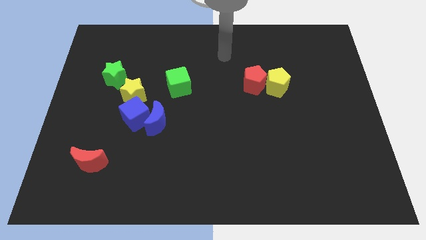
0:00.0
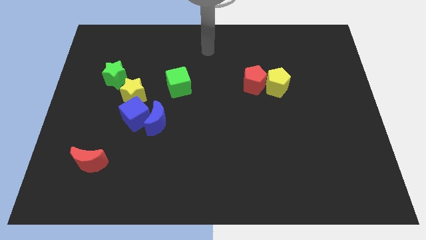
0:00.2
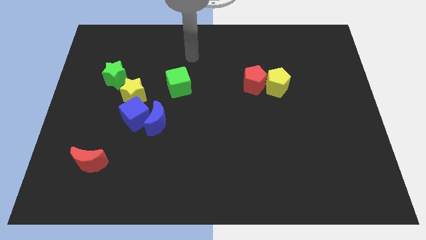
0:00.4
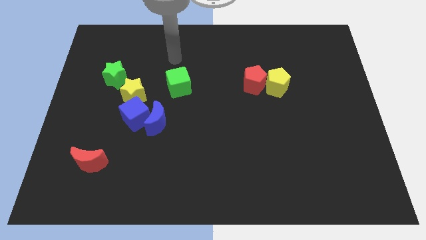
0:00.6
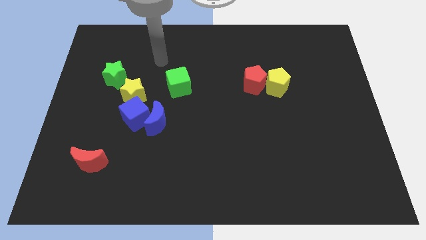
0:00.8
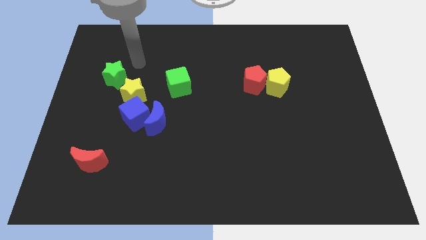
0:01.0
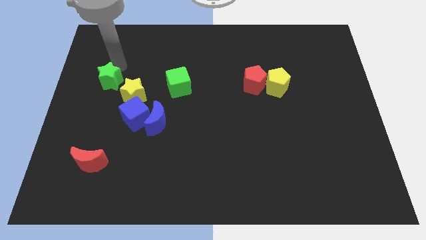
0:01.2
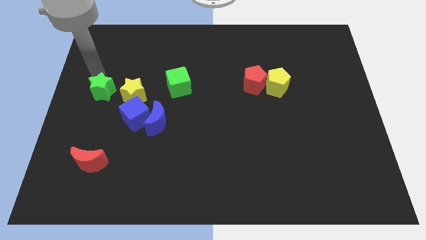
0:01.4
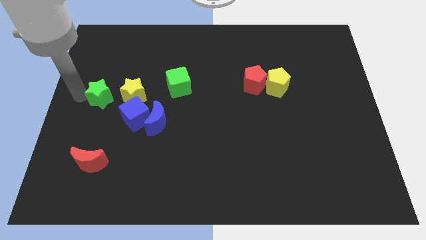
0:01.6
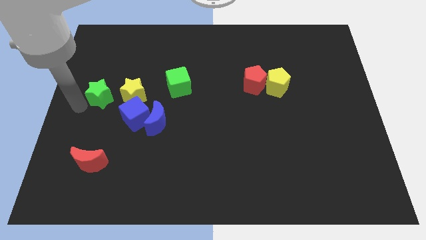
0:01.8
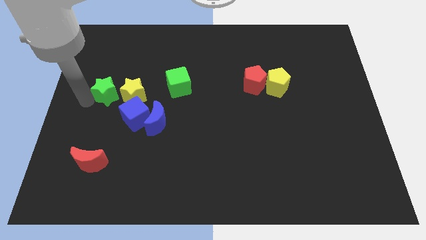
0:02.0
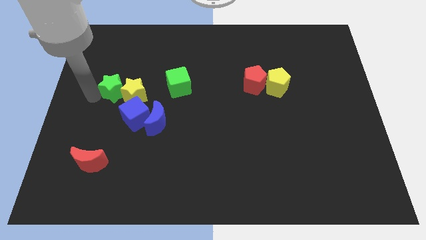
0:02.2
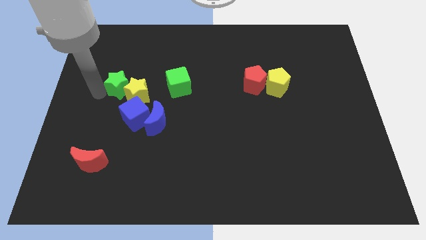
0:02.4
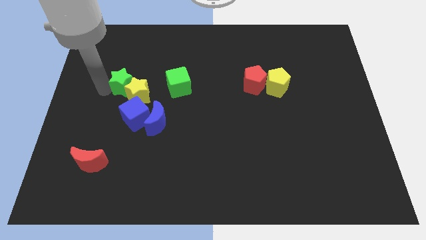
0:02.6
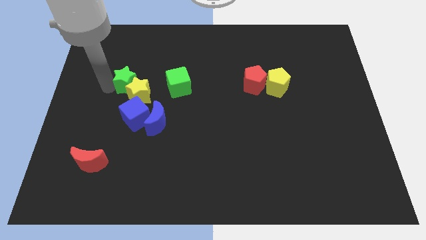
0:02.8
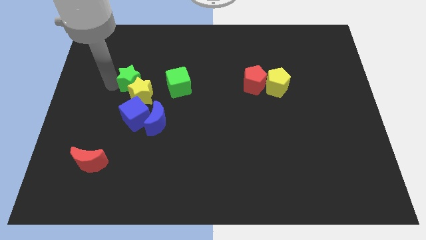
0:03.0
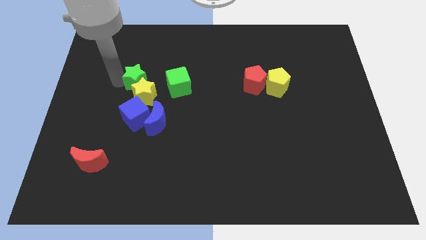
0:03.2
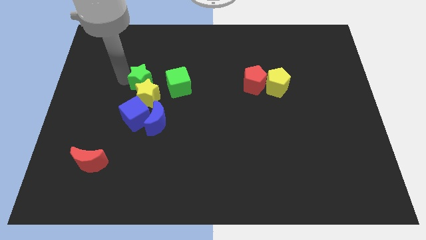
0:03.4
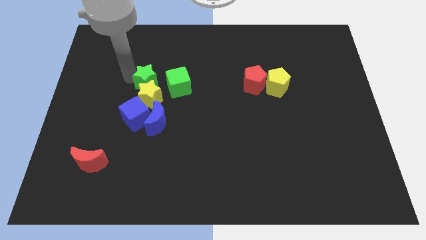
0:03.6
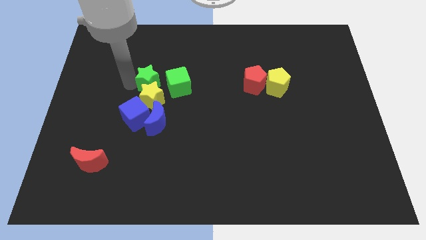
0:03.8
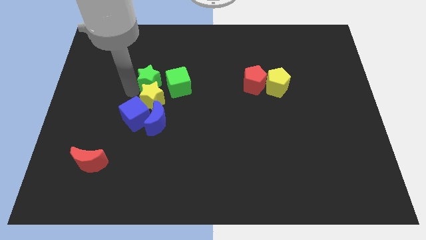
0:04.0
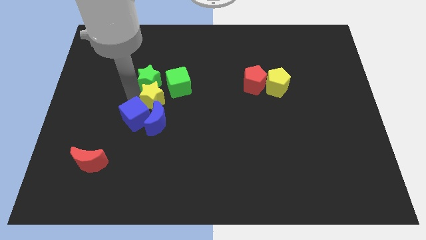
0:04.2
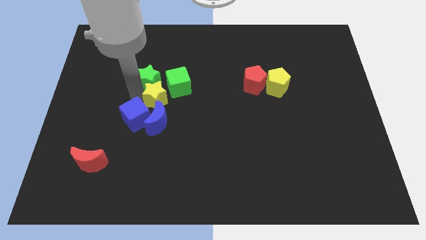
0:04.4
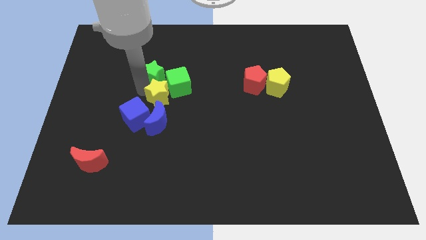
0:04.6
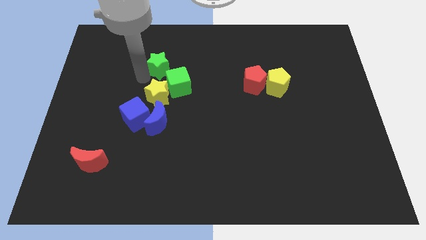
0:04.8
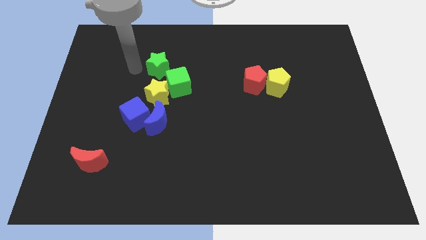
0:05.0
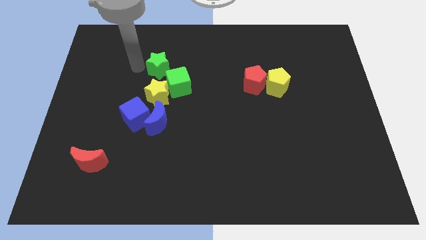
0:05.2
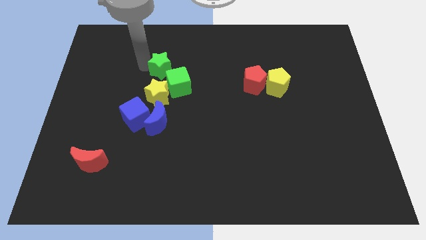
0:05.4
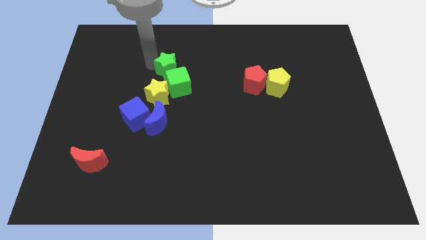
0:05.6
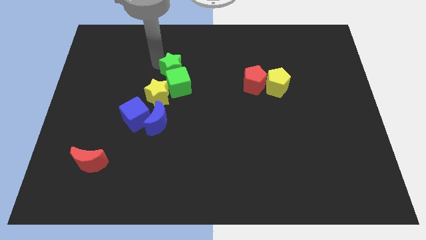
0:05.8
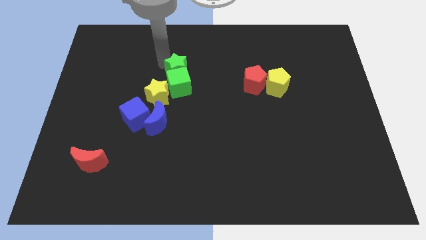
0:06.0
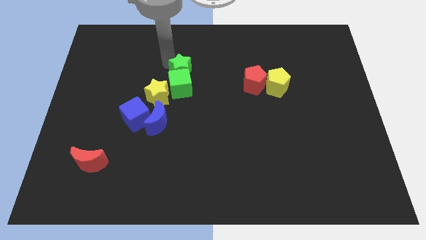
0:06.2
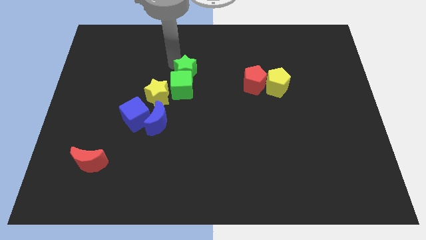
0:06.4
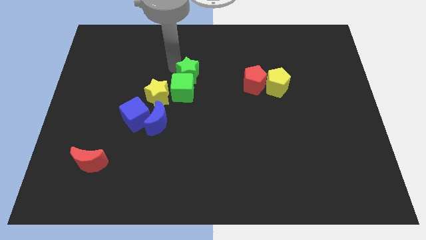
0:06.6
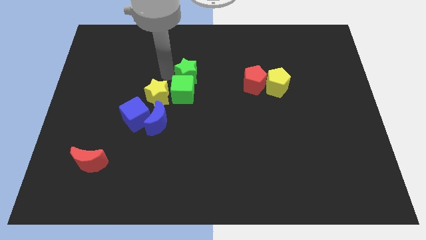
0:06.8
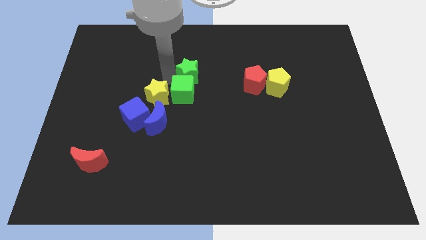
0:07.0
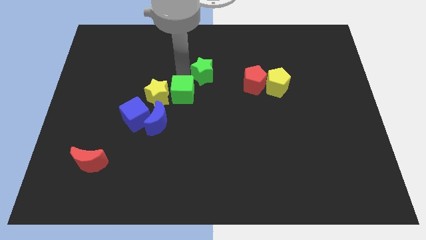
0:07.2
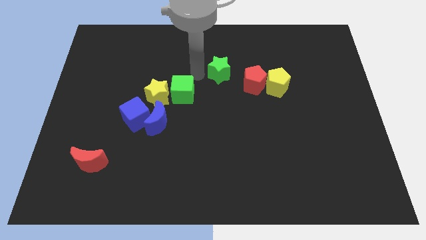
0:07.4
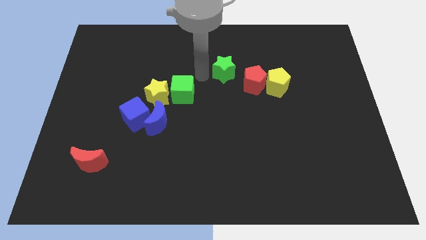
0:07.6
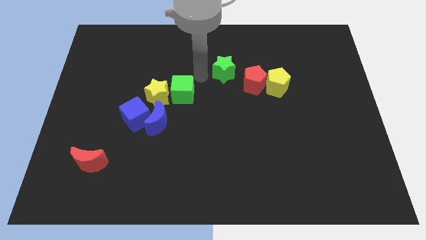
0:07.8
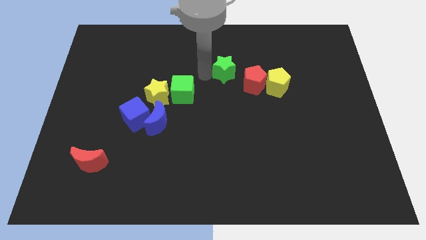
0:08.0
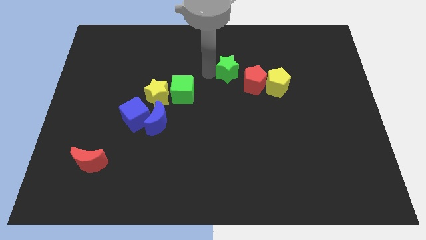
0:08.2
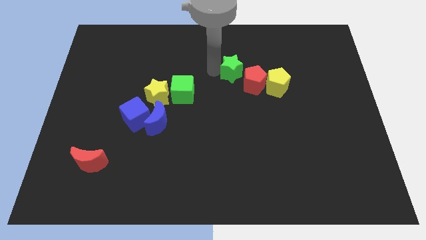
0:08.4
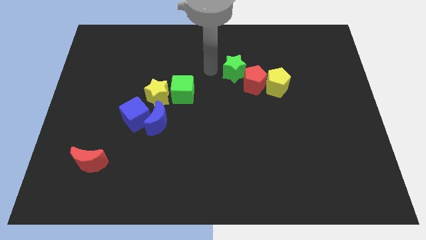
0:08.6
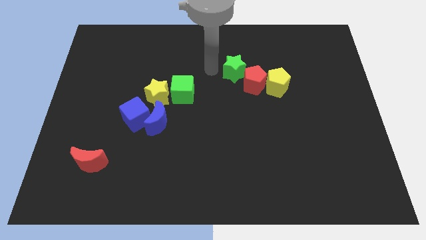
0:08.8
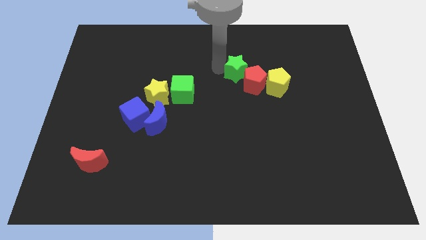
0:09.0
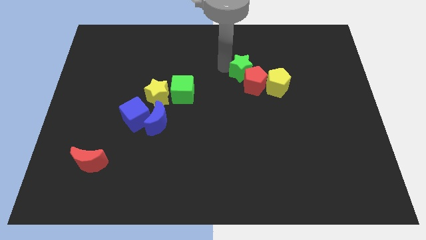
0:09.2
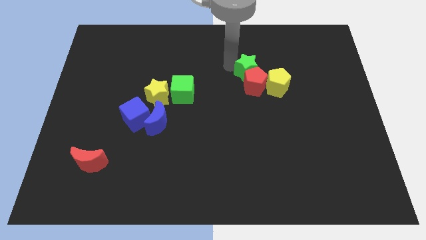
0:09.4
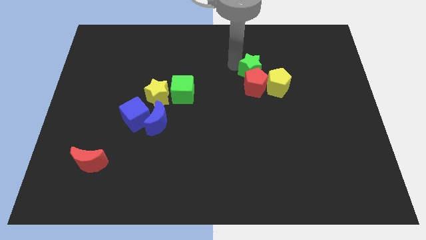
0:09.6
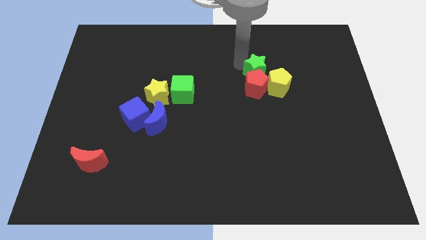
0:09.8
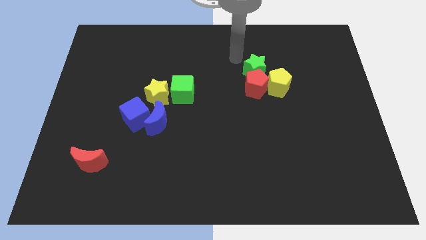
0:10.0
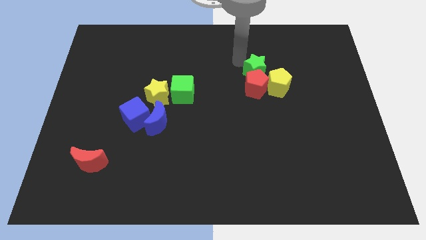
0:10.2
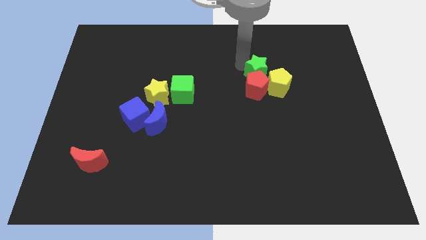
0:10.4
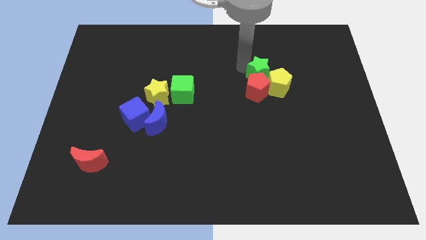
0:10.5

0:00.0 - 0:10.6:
move the green star close to the yellow pentagon

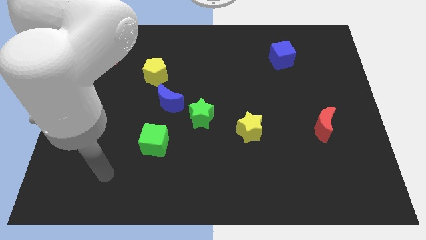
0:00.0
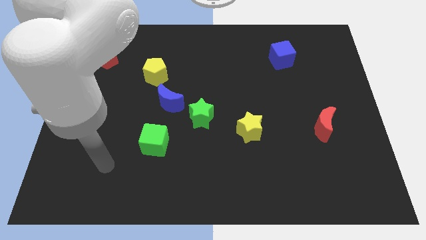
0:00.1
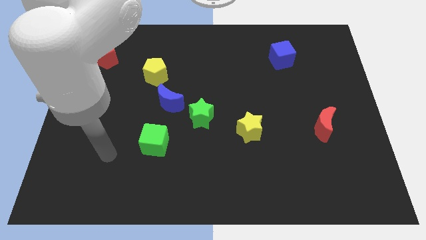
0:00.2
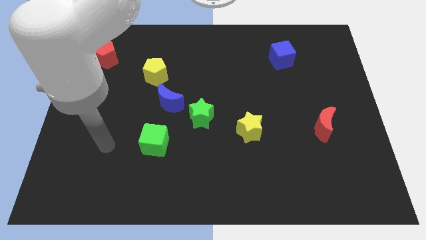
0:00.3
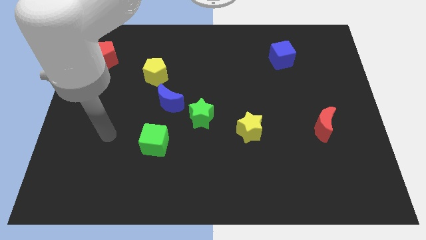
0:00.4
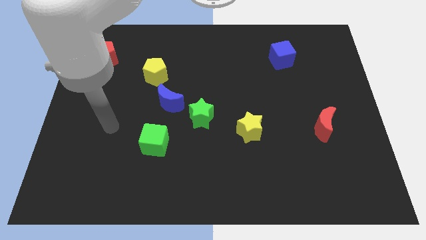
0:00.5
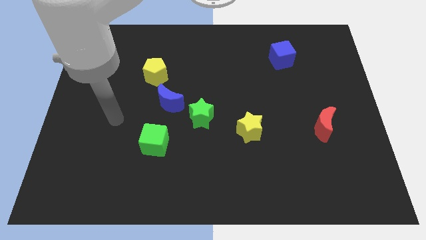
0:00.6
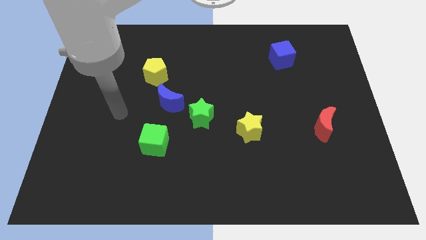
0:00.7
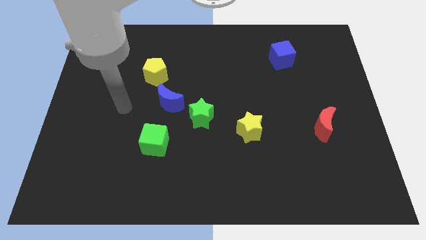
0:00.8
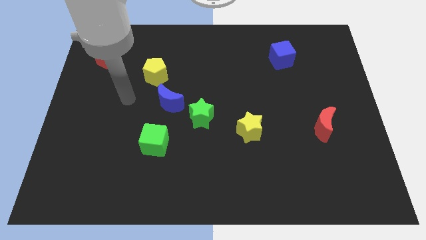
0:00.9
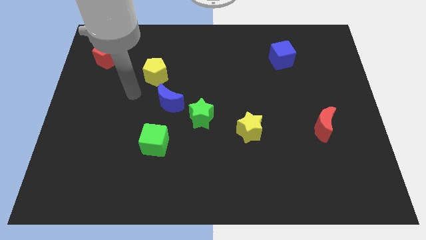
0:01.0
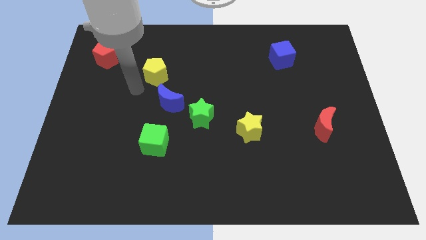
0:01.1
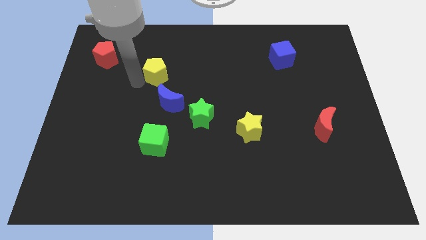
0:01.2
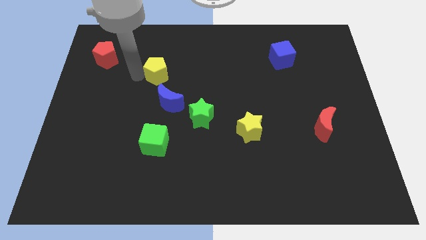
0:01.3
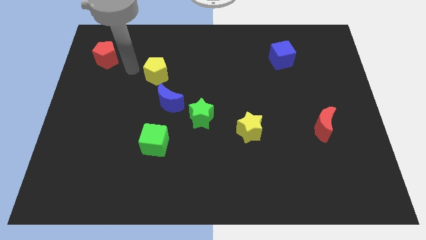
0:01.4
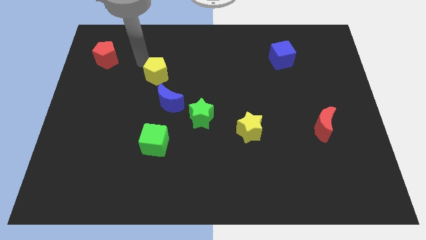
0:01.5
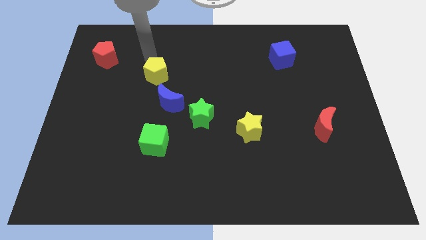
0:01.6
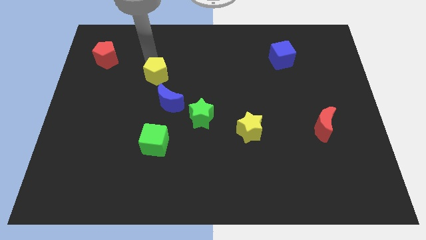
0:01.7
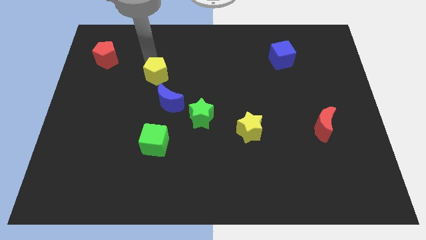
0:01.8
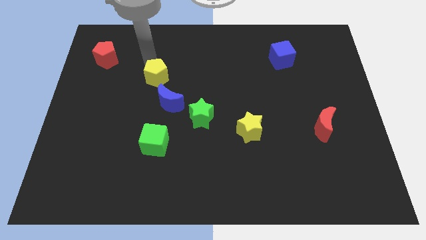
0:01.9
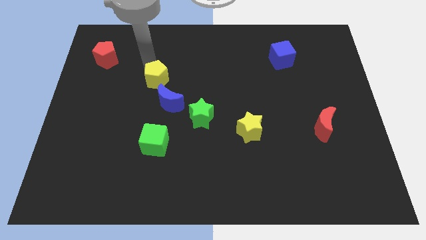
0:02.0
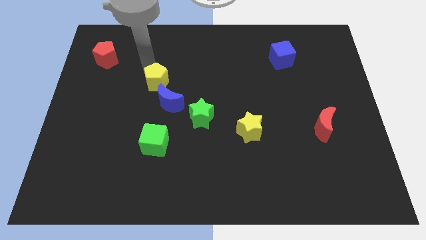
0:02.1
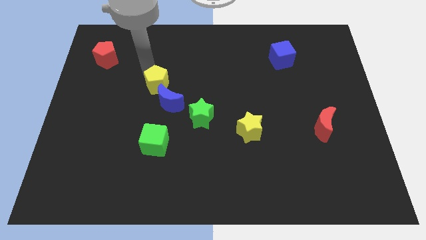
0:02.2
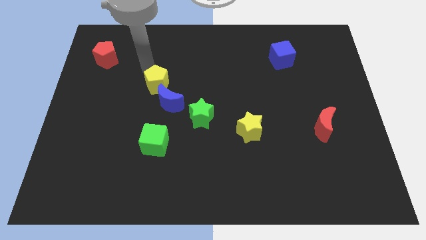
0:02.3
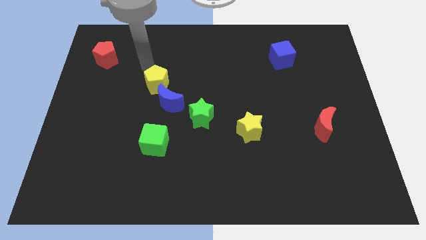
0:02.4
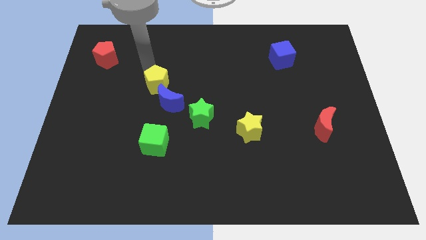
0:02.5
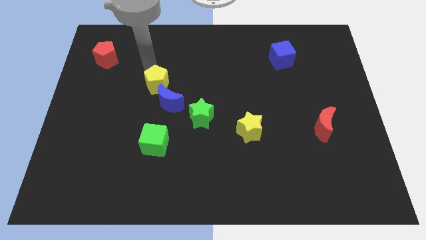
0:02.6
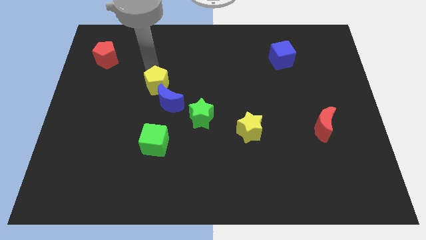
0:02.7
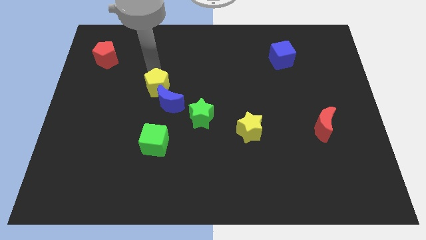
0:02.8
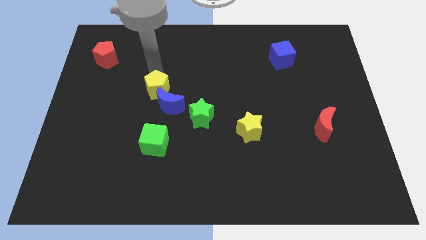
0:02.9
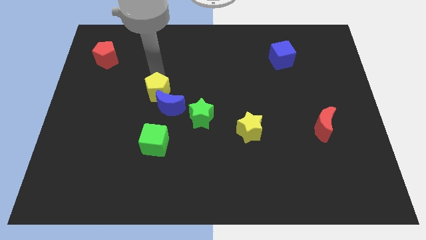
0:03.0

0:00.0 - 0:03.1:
put the yellow pentagon close to the blue moon
